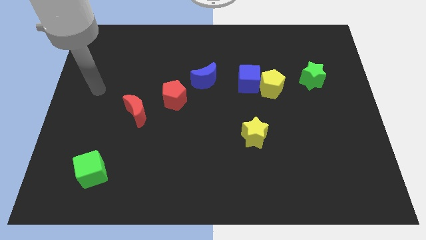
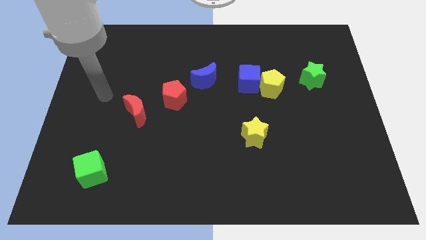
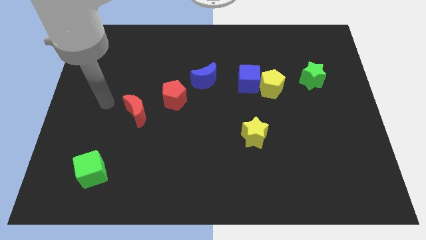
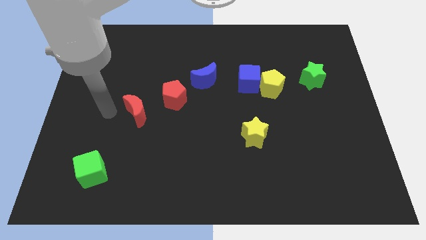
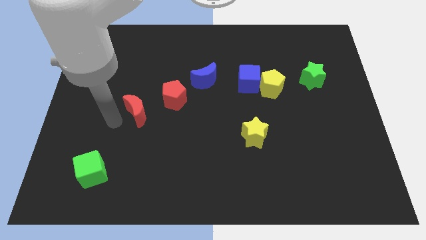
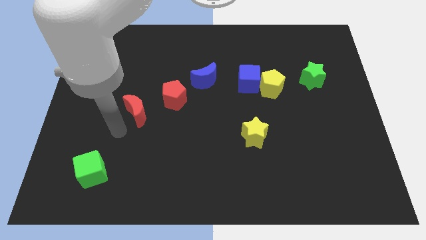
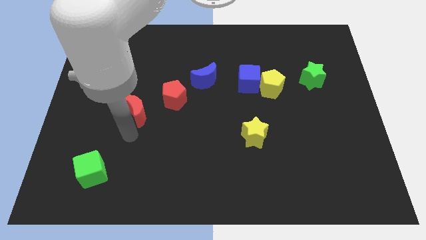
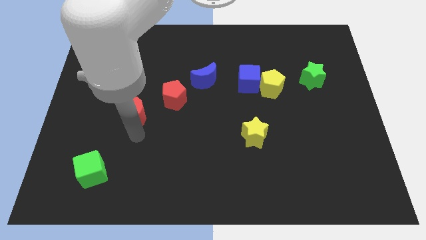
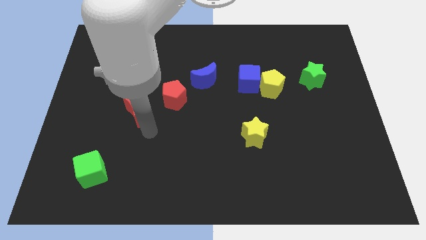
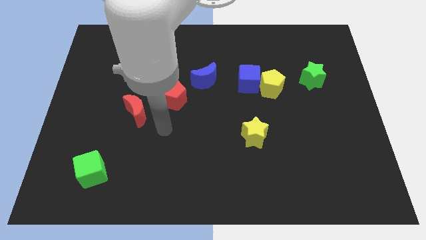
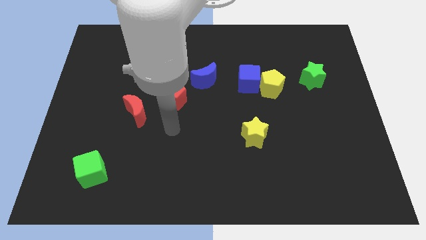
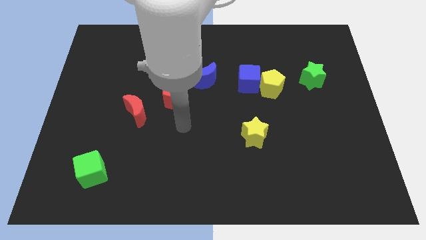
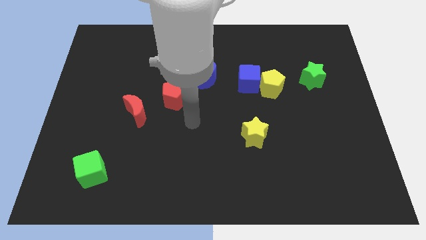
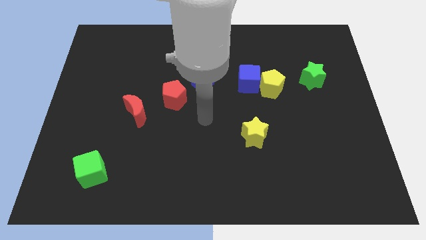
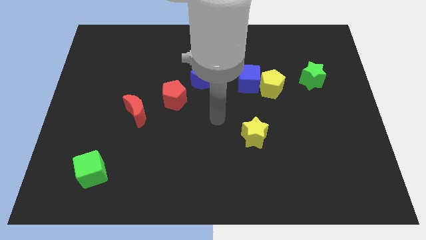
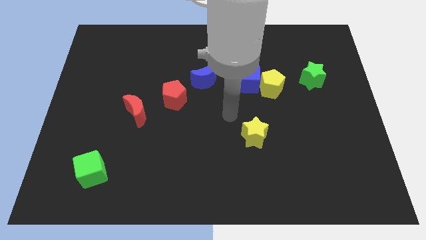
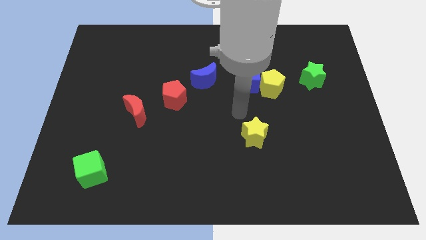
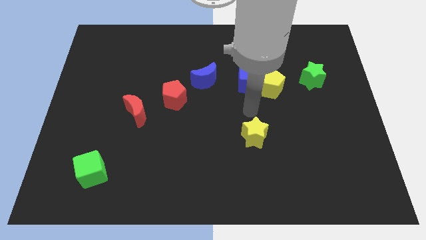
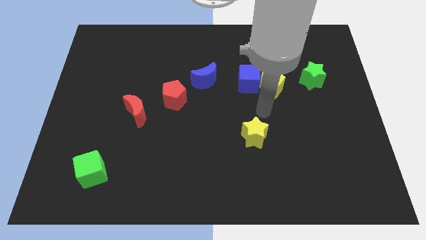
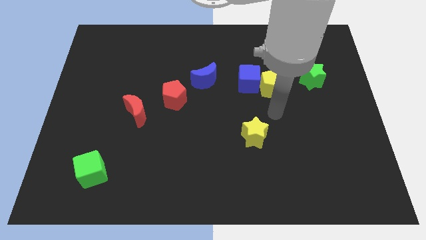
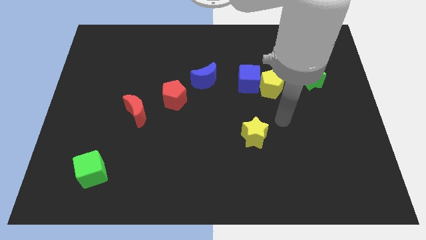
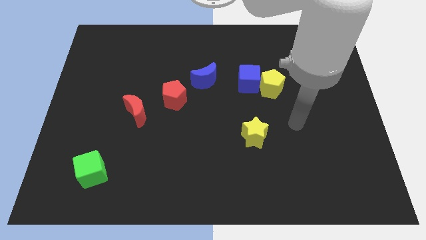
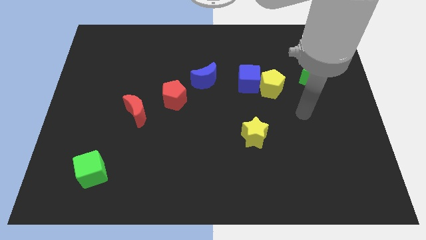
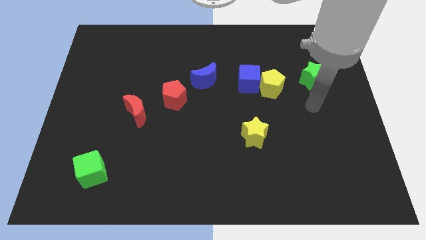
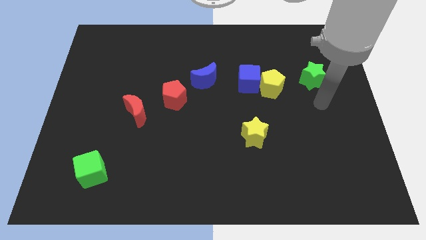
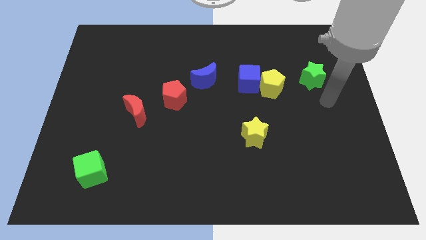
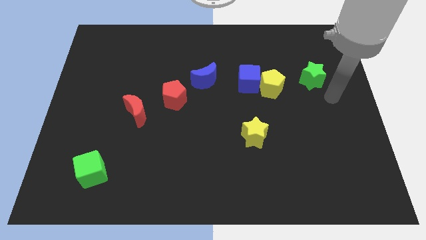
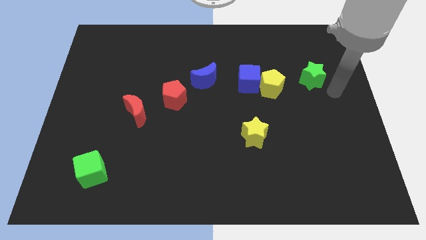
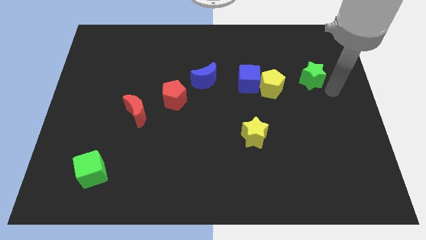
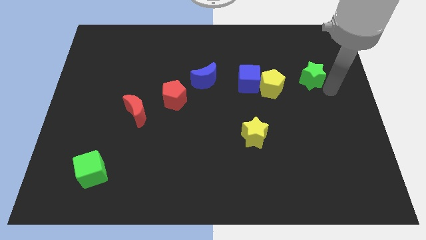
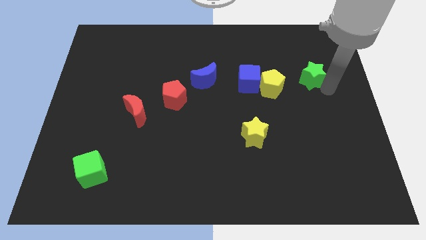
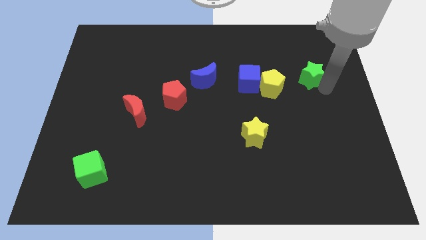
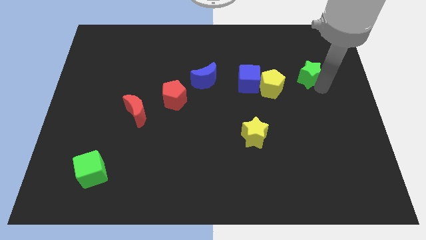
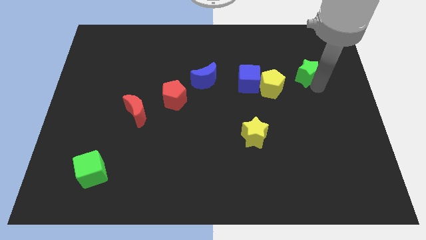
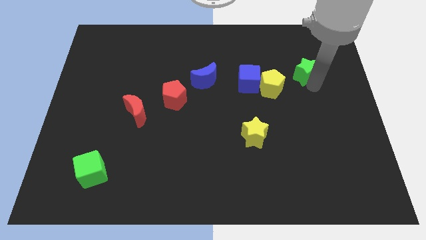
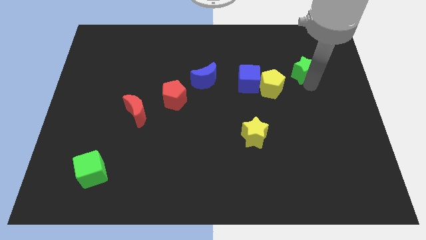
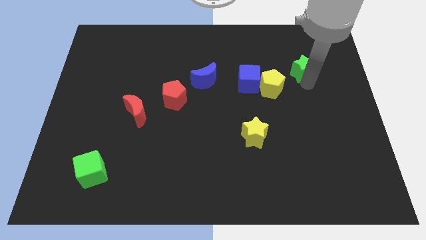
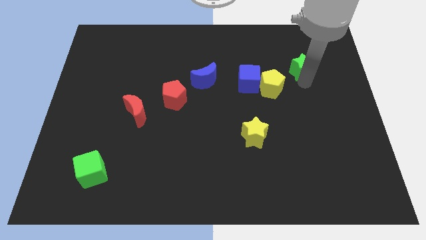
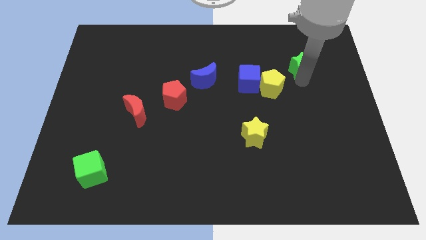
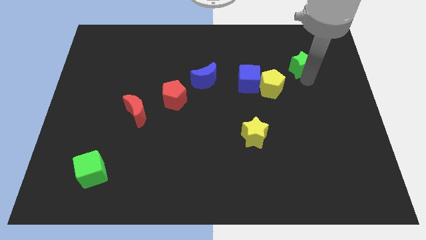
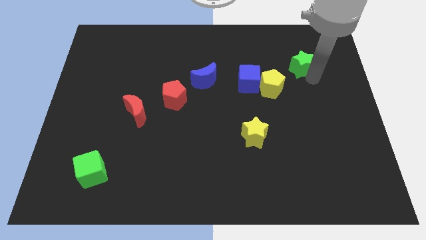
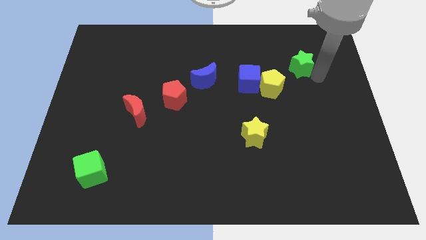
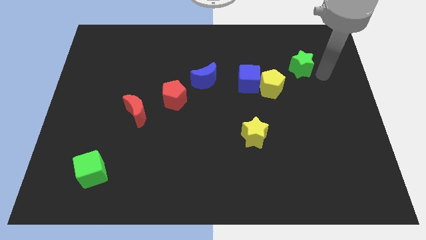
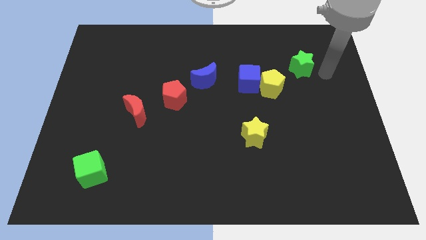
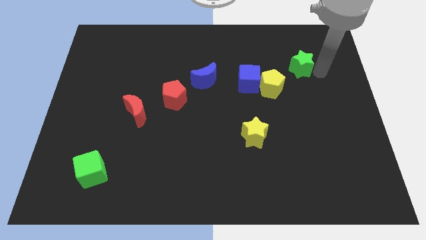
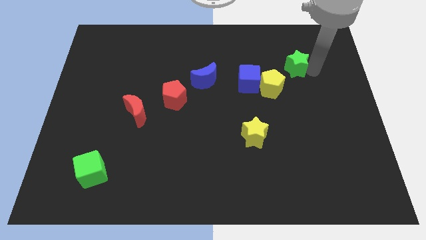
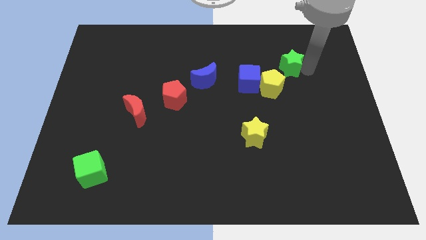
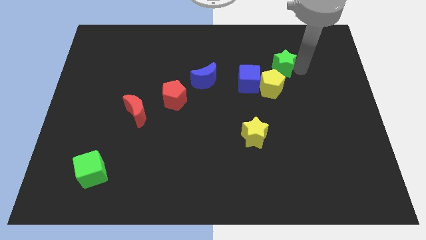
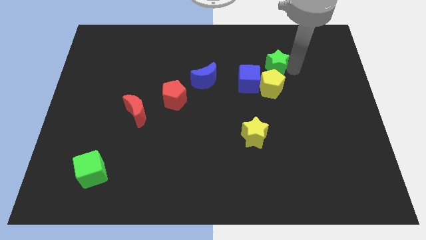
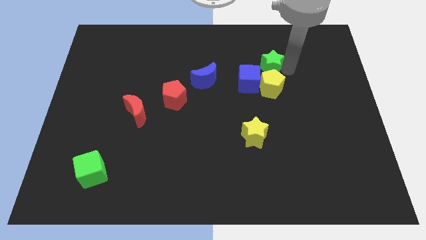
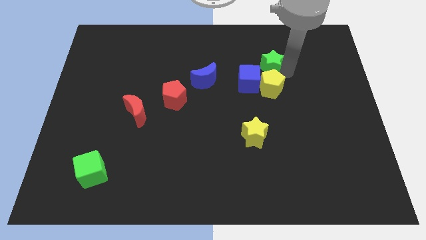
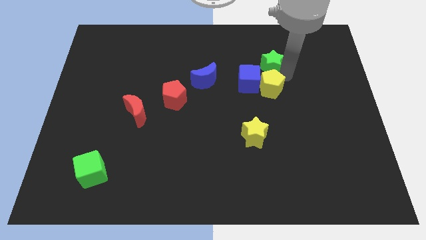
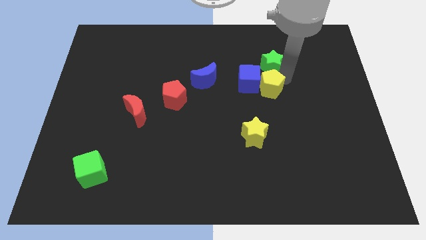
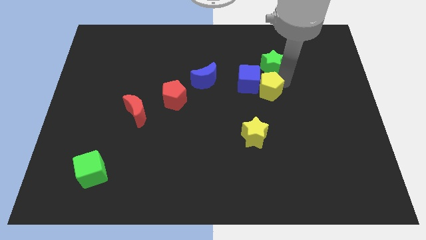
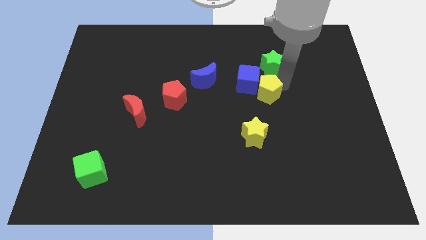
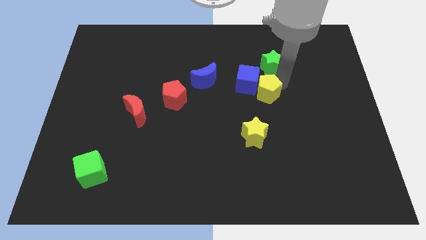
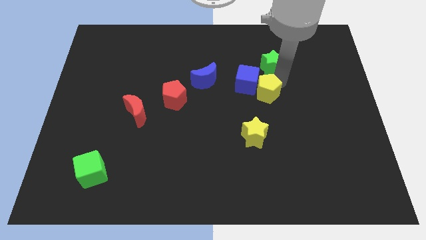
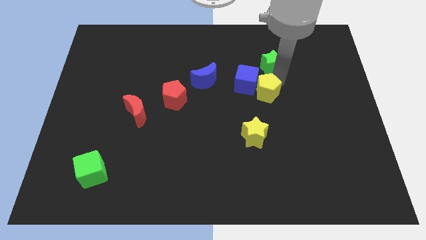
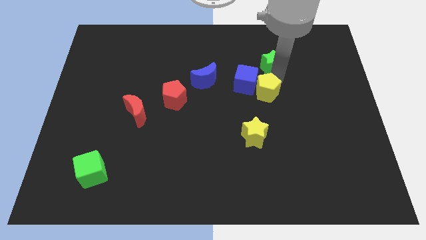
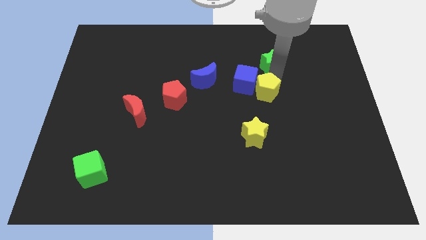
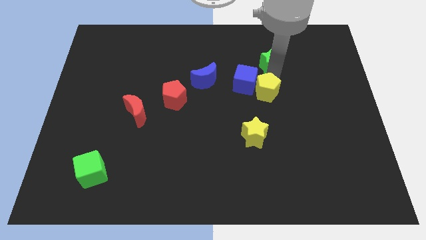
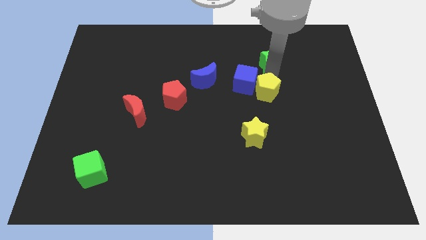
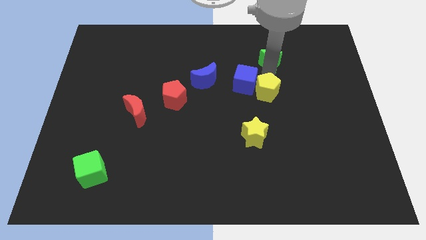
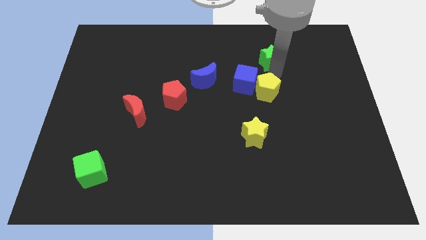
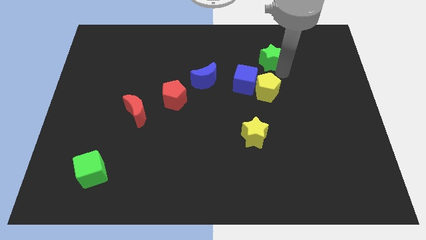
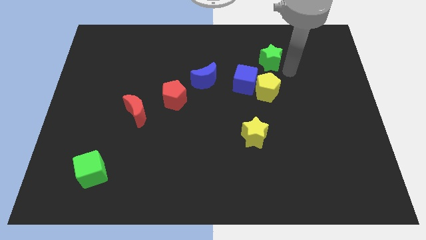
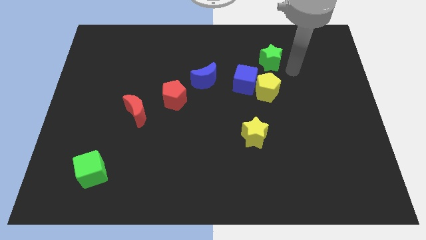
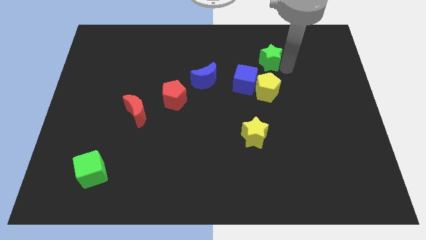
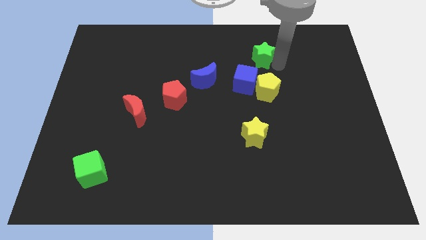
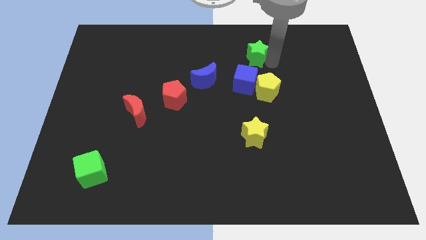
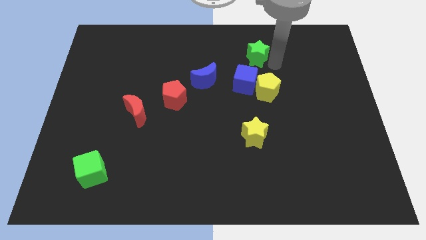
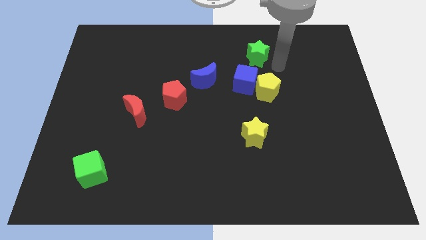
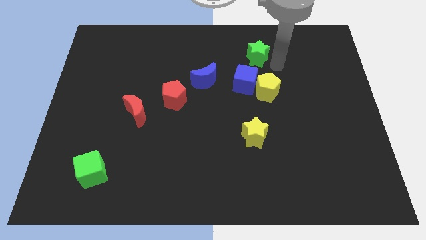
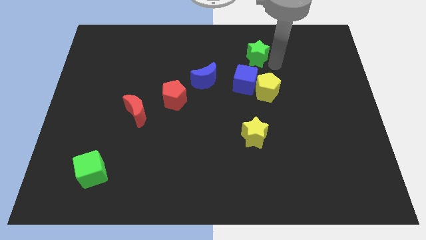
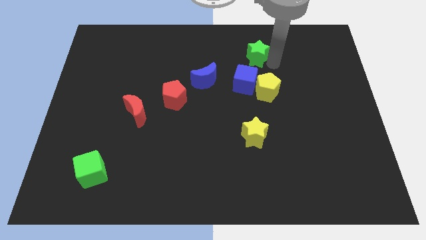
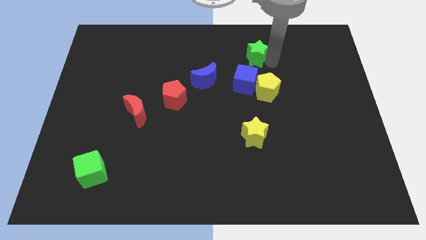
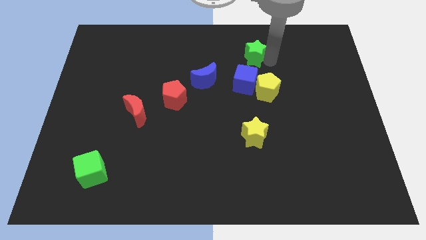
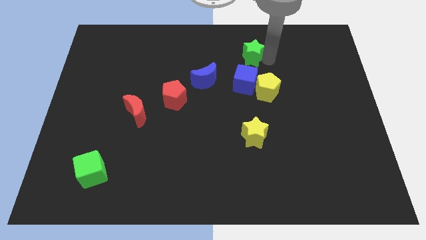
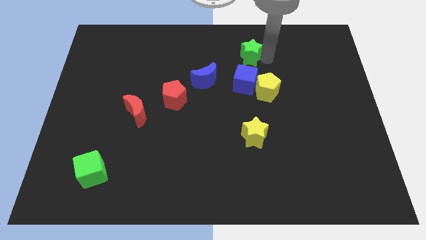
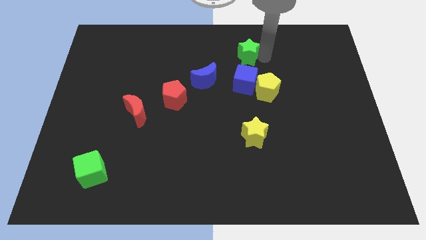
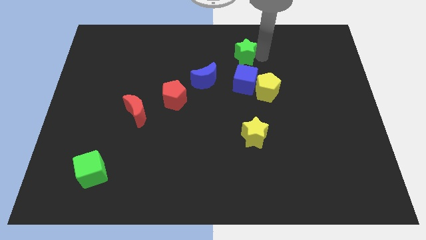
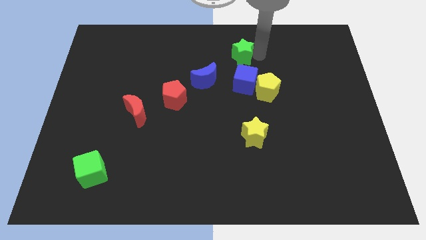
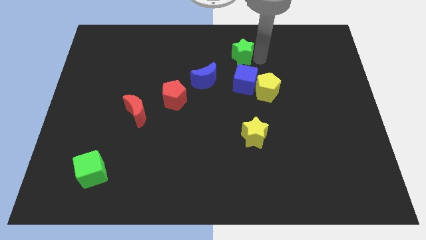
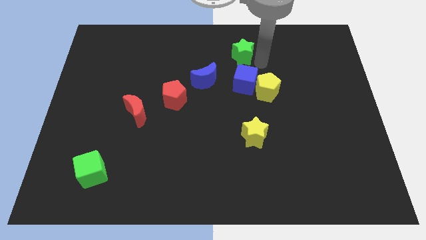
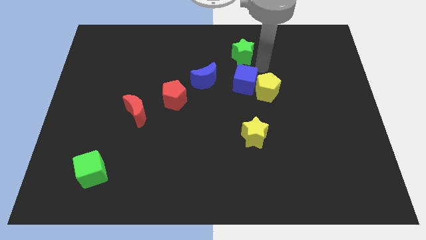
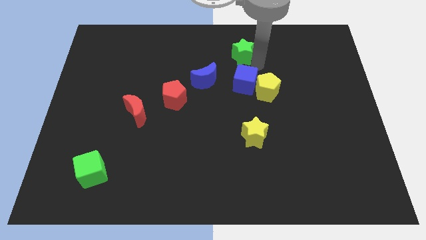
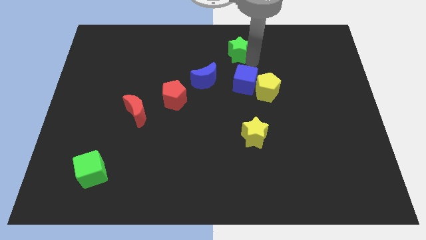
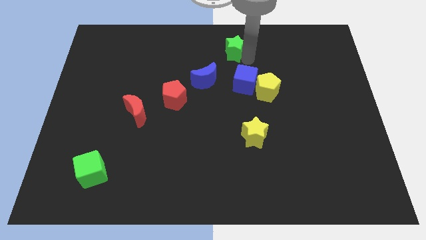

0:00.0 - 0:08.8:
put the green star to the towards your base
